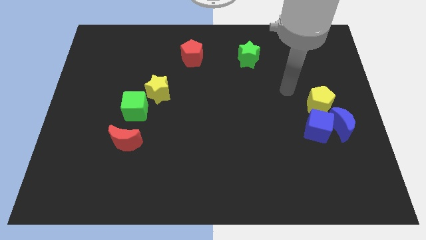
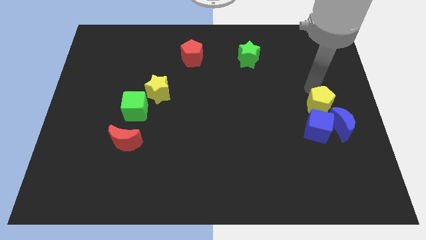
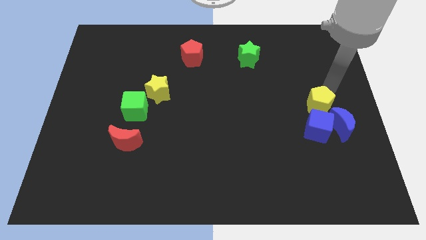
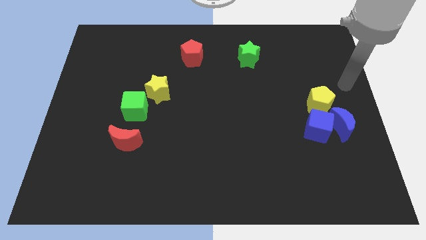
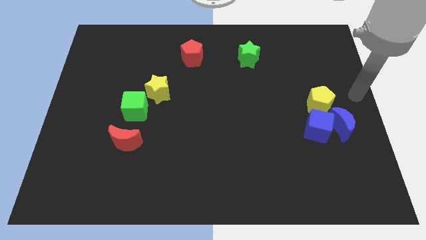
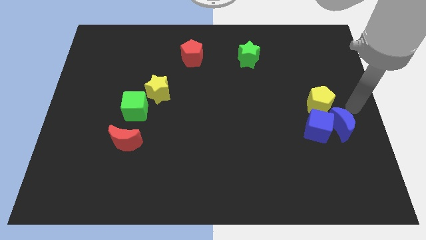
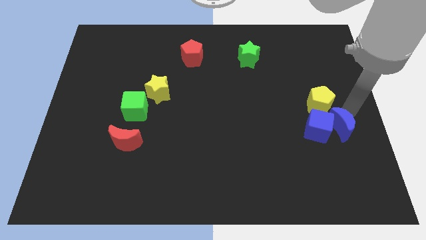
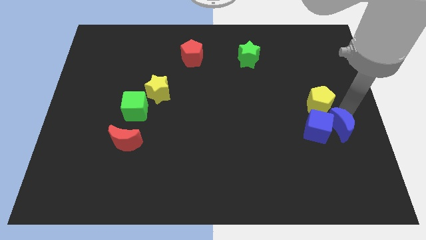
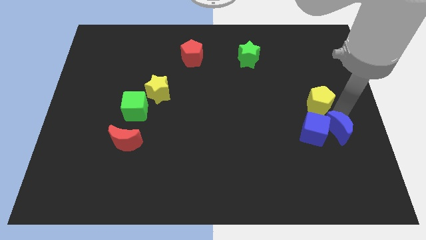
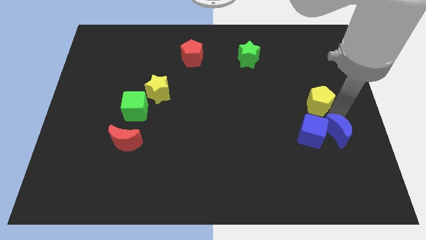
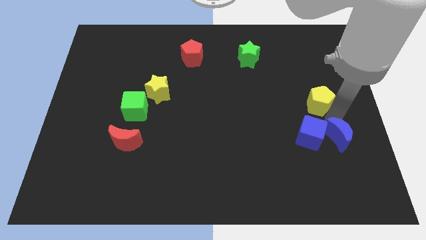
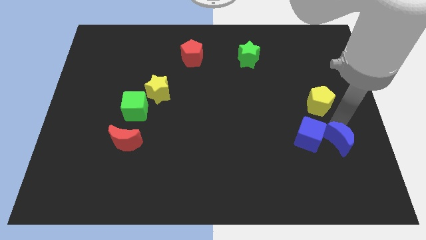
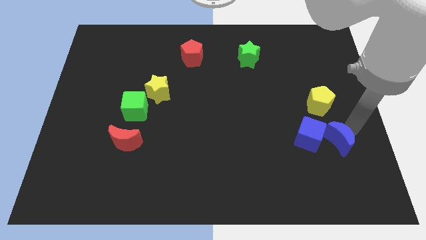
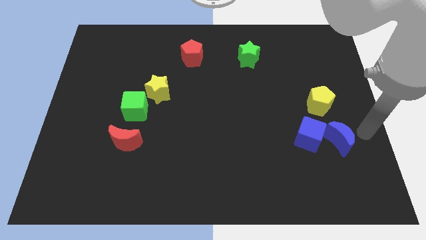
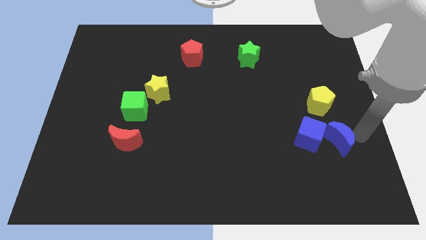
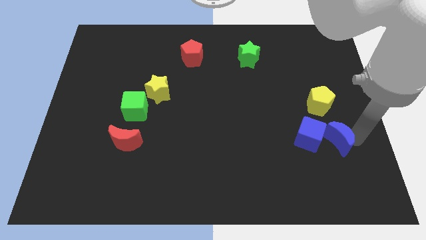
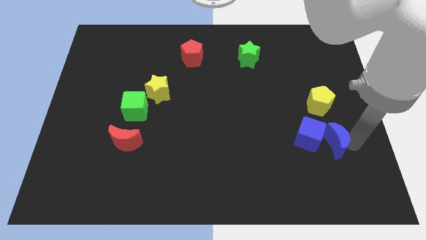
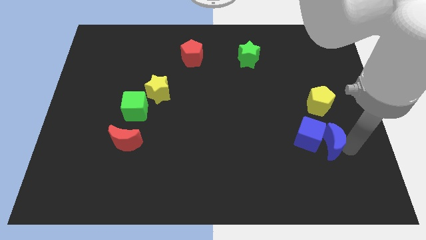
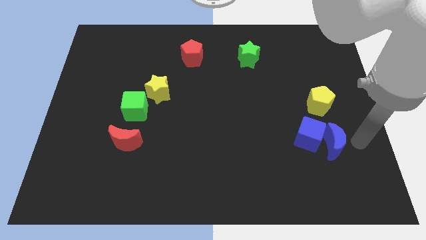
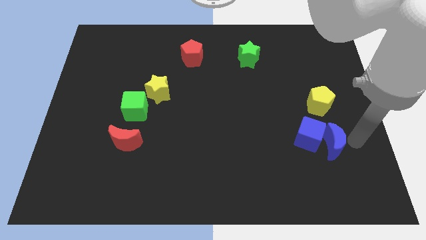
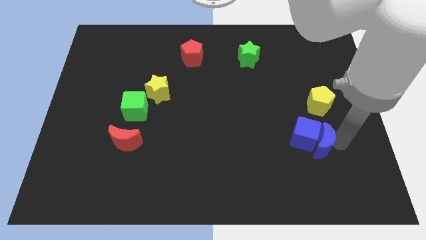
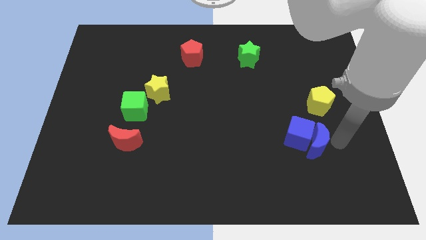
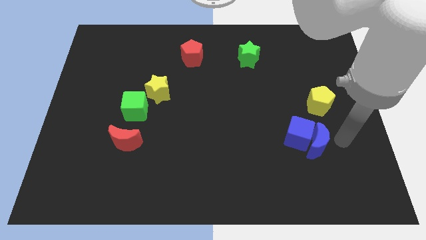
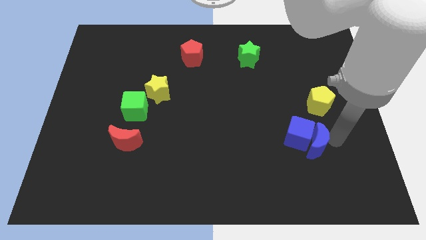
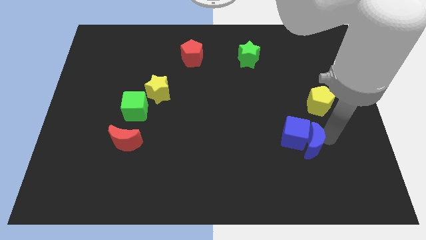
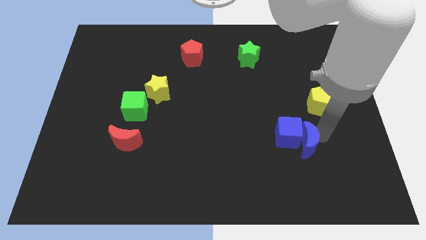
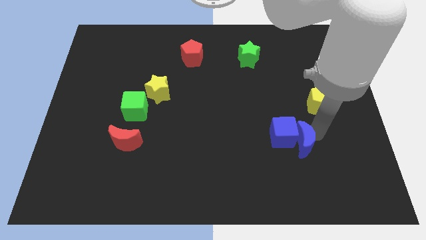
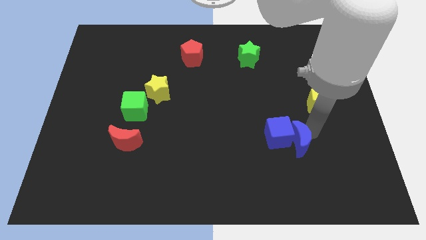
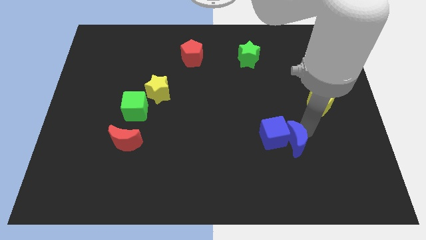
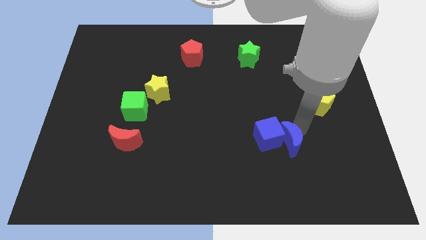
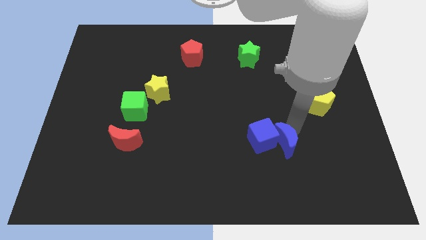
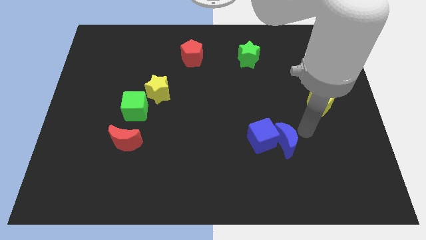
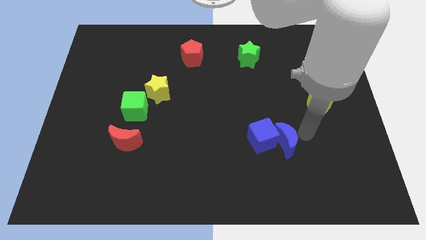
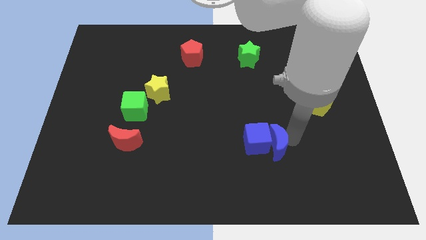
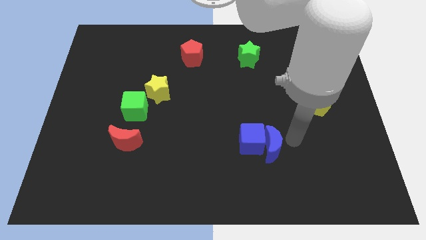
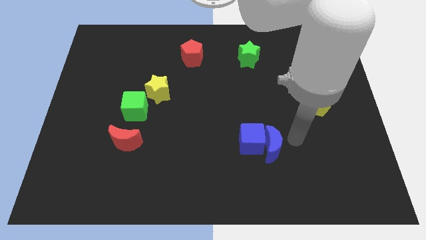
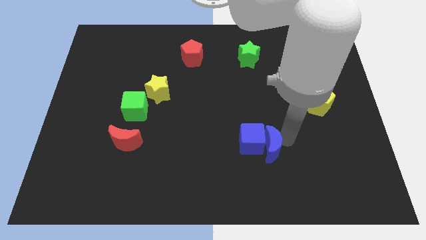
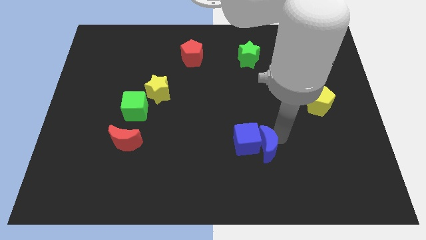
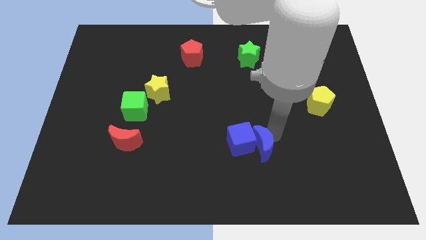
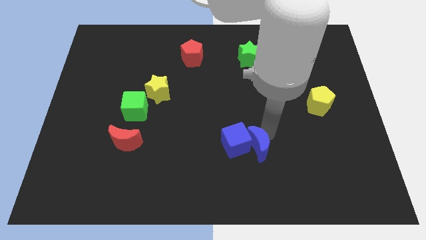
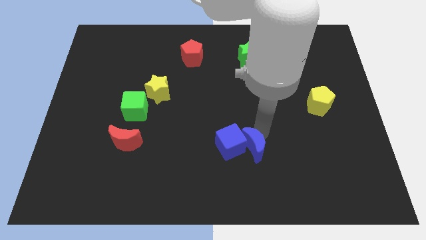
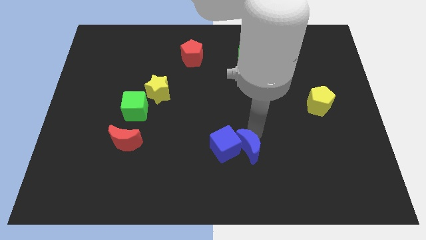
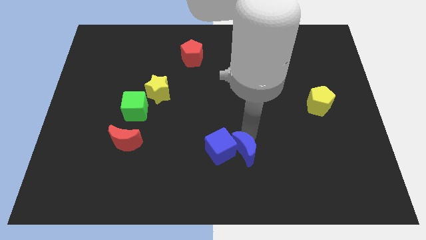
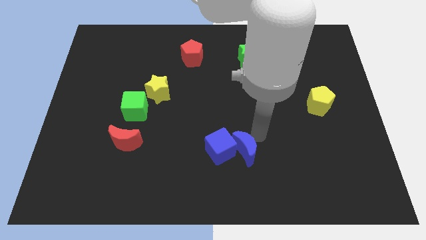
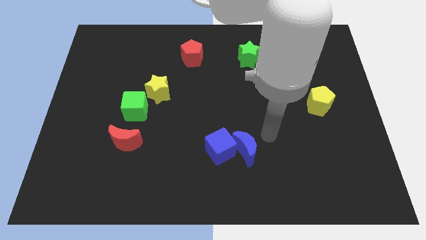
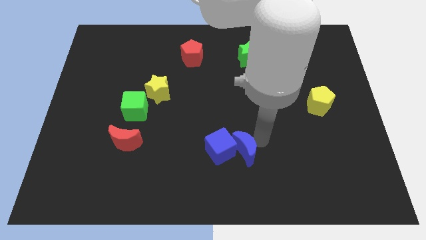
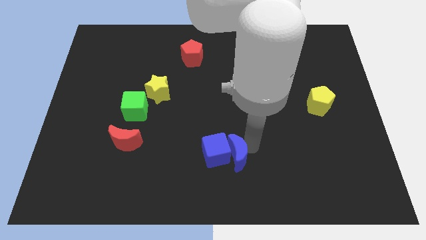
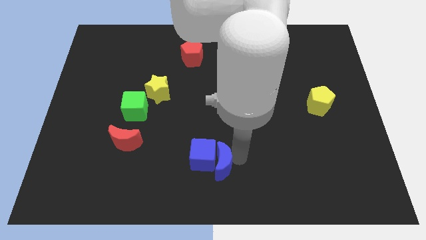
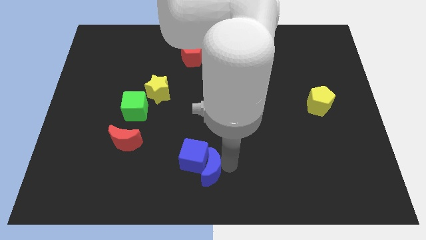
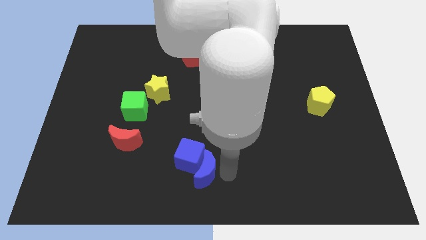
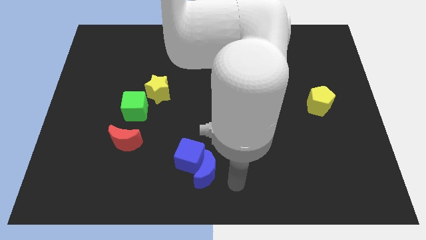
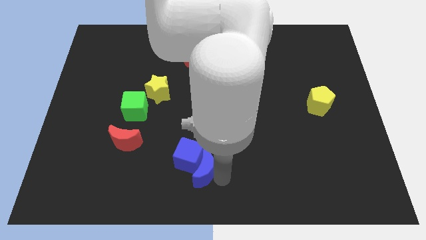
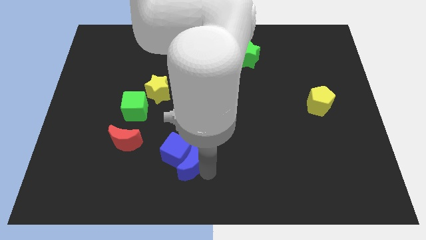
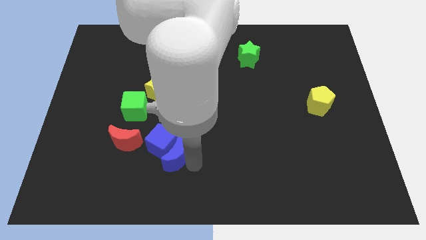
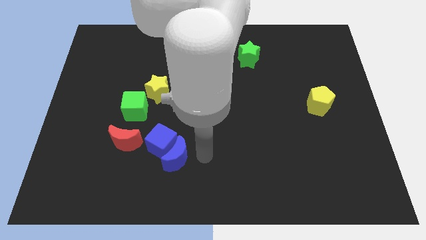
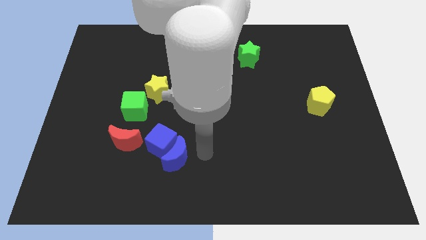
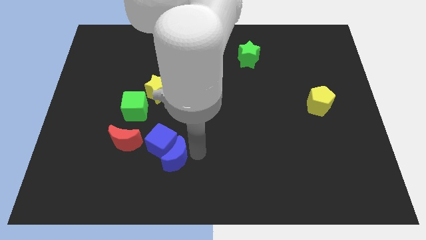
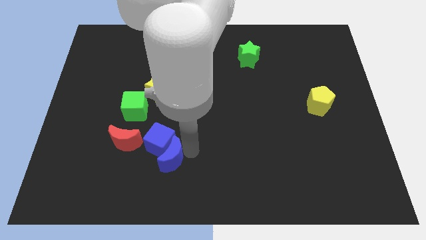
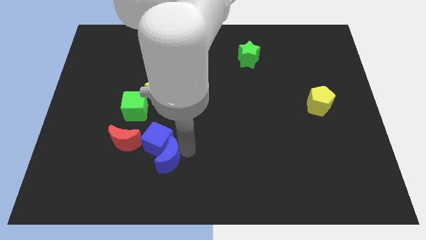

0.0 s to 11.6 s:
slide the blue moon to the bottom right of the red moon

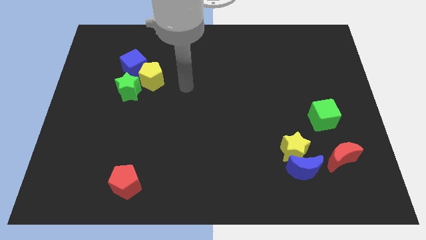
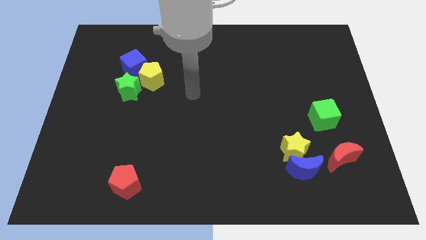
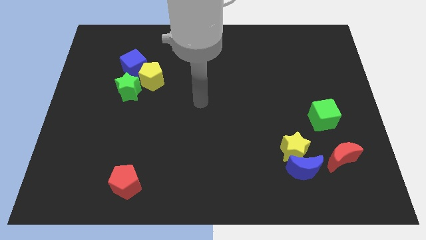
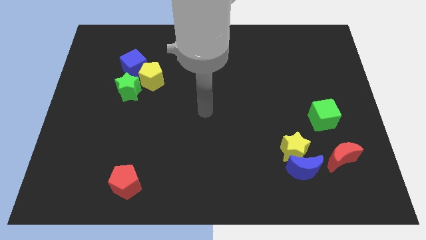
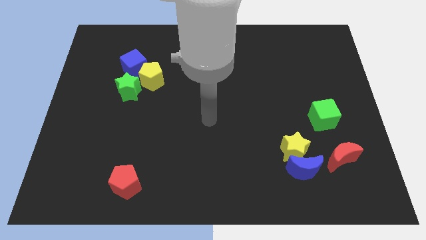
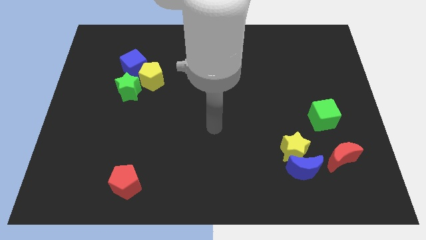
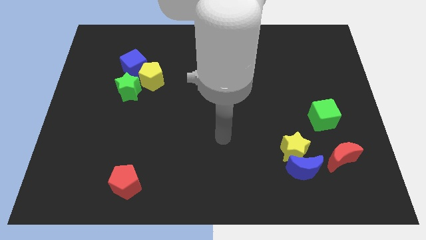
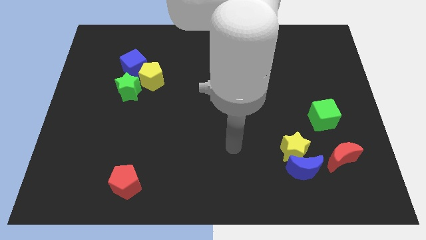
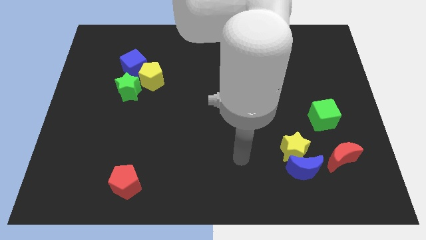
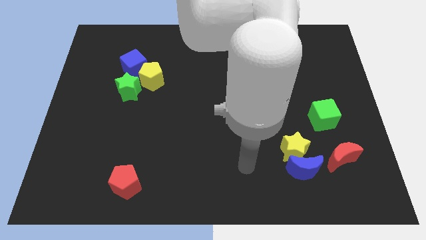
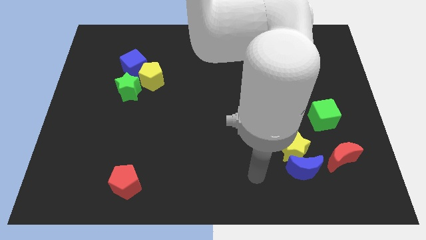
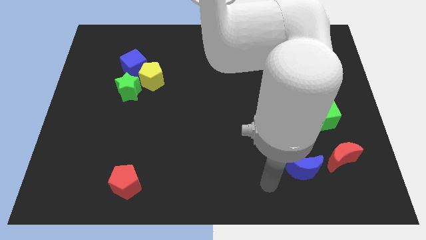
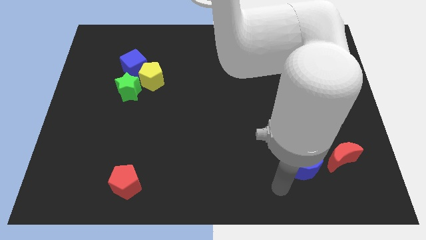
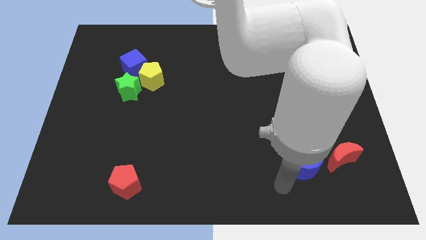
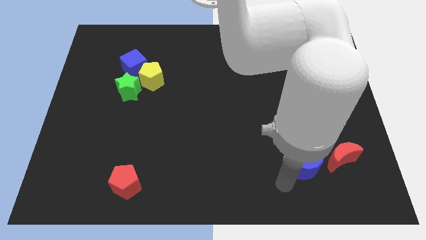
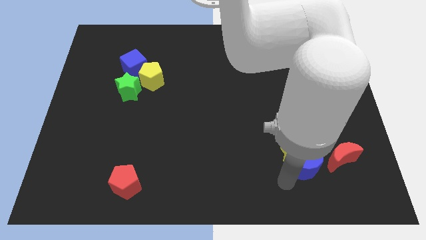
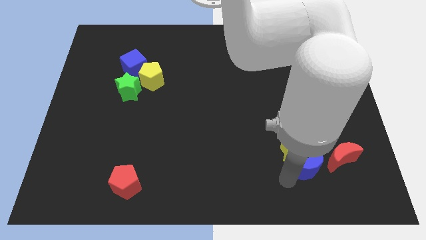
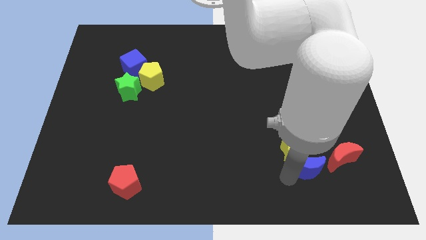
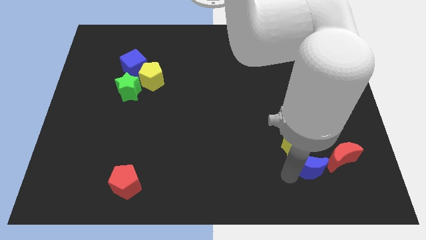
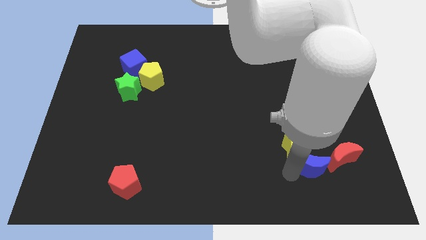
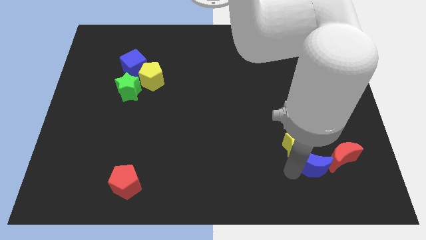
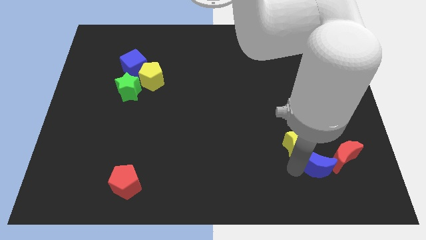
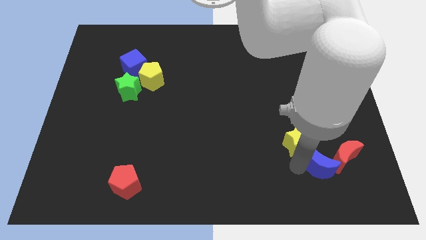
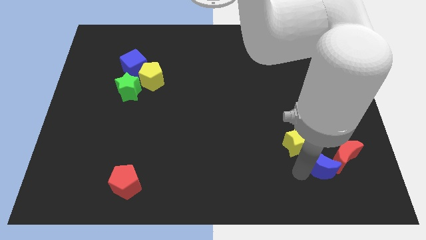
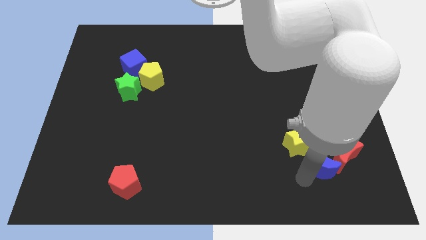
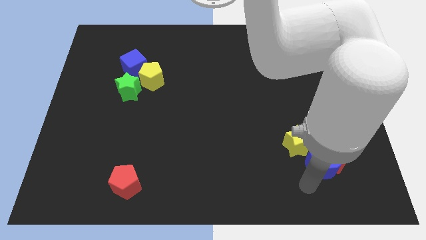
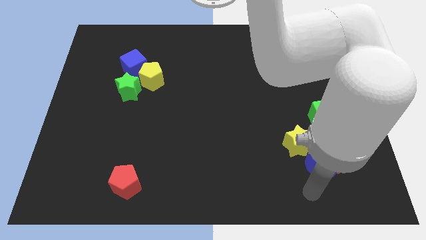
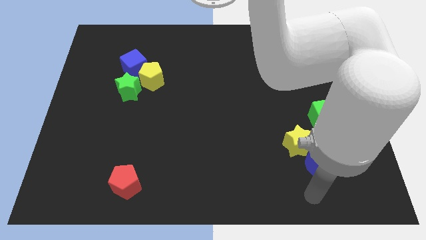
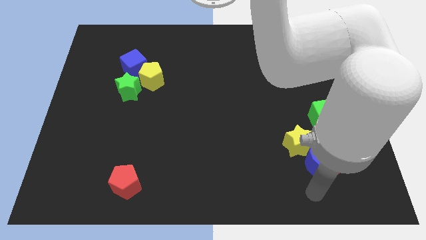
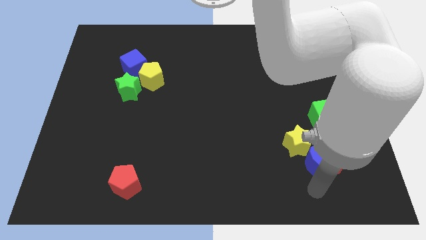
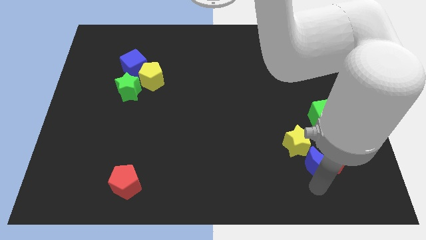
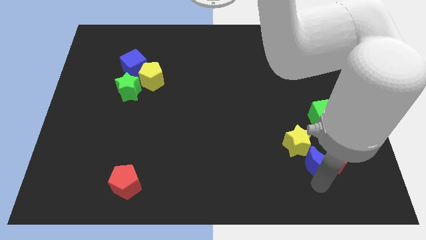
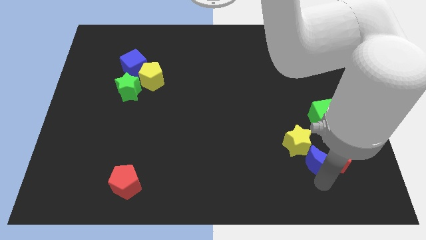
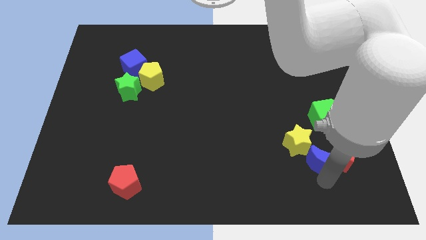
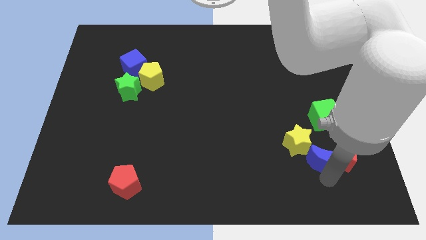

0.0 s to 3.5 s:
push the blue moon to the right of the yellow star
